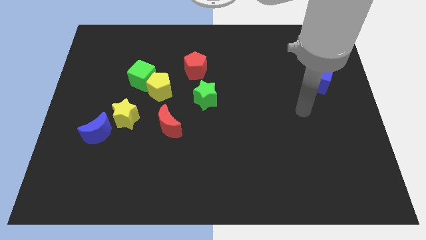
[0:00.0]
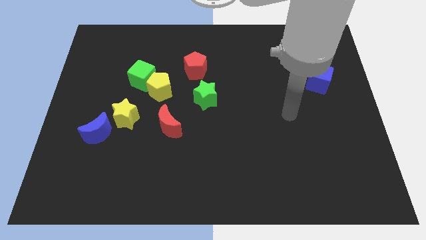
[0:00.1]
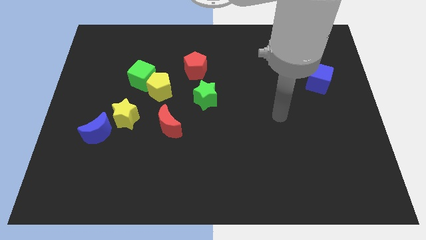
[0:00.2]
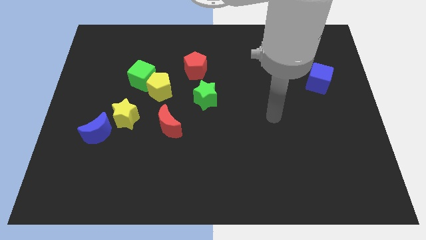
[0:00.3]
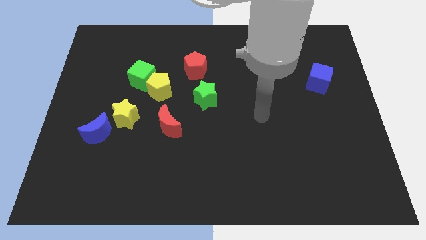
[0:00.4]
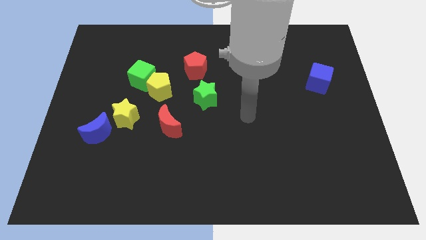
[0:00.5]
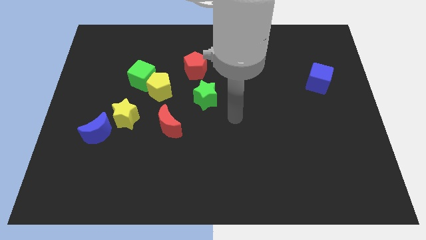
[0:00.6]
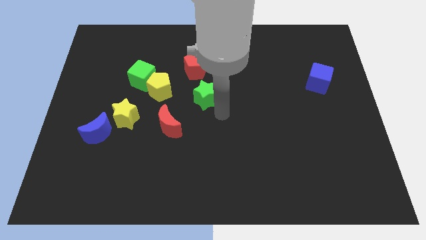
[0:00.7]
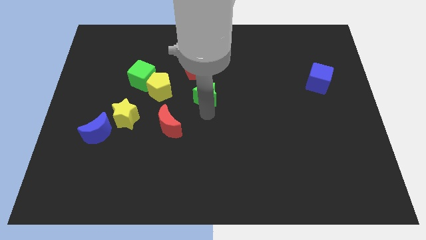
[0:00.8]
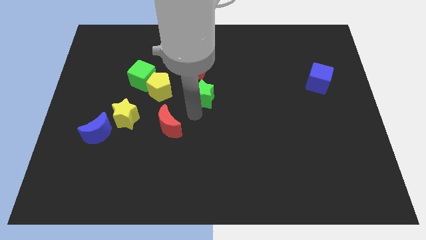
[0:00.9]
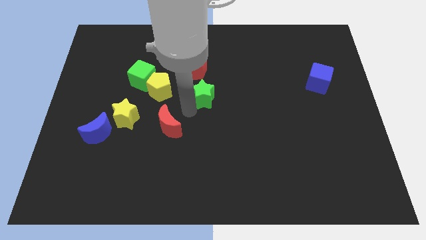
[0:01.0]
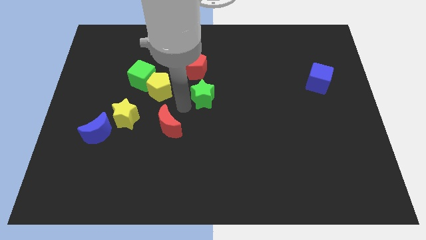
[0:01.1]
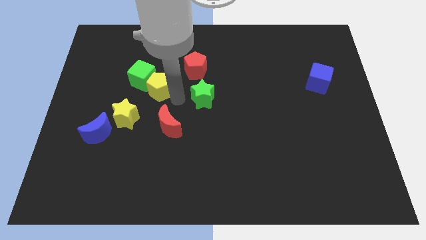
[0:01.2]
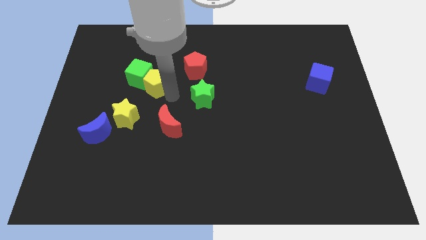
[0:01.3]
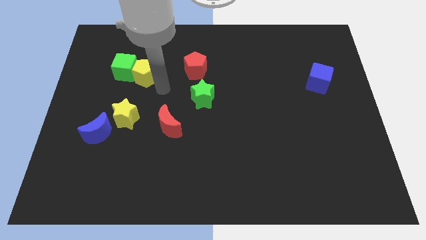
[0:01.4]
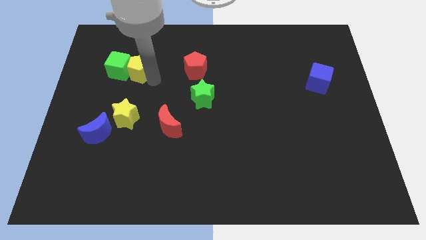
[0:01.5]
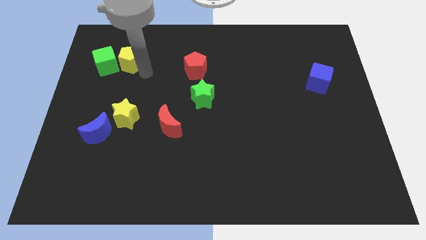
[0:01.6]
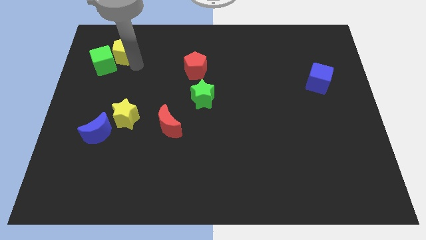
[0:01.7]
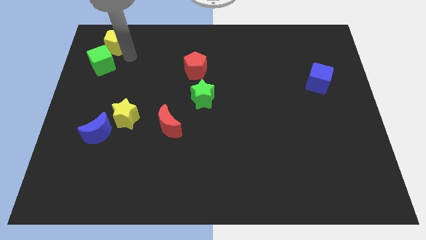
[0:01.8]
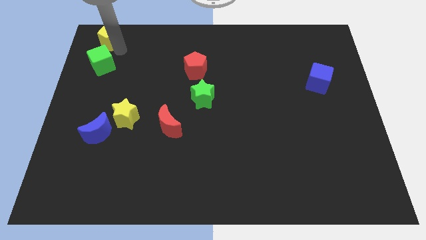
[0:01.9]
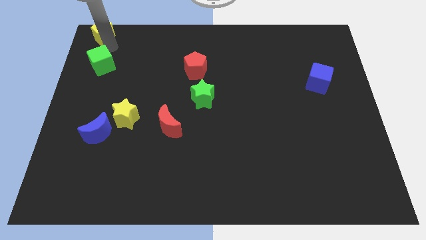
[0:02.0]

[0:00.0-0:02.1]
separate the green cube from the yellow pentagon

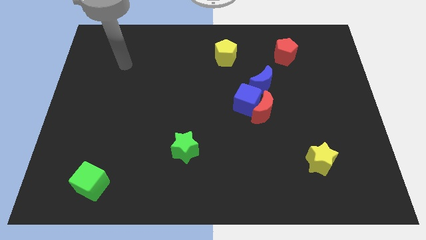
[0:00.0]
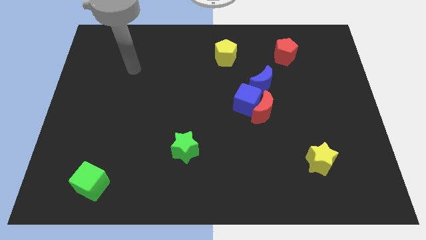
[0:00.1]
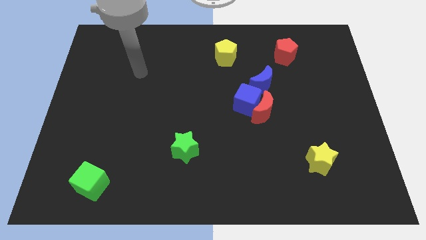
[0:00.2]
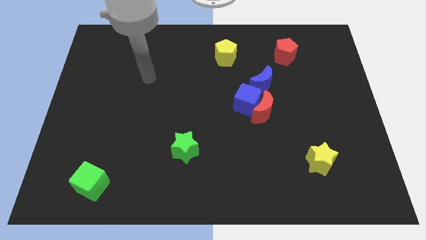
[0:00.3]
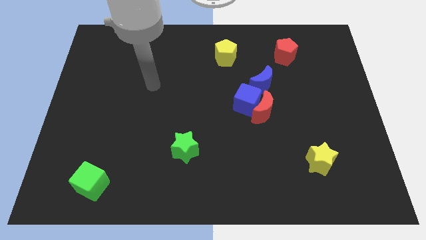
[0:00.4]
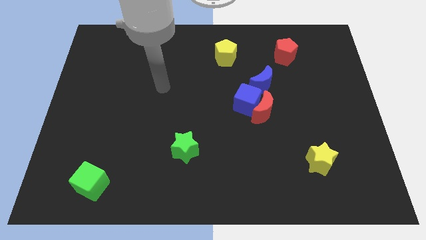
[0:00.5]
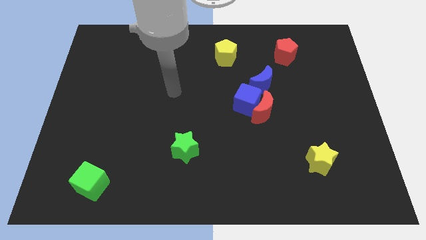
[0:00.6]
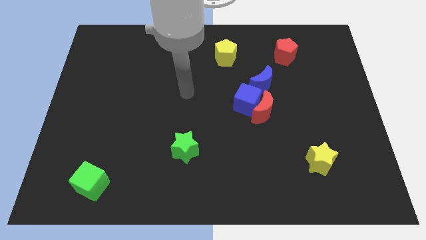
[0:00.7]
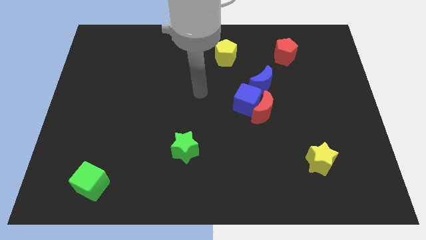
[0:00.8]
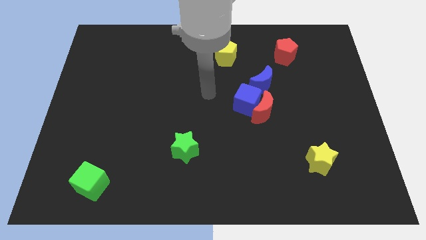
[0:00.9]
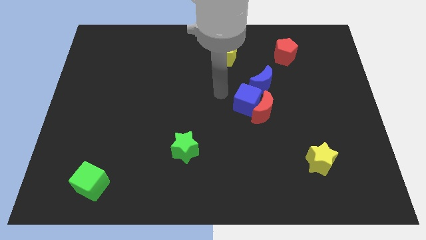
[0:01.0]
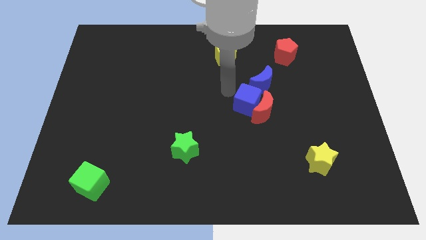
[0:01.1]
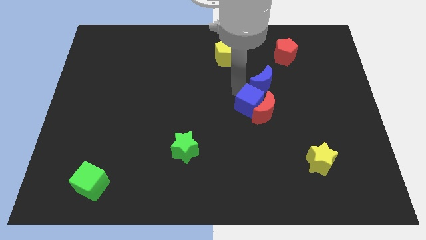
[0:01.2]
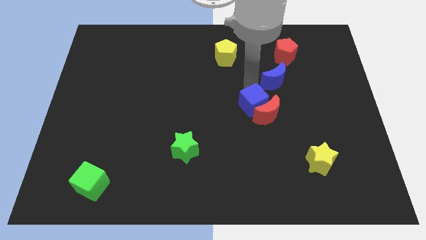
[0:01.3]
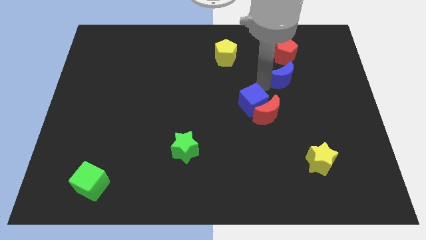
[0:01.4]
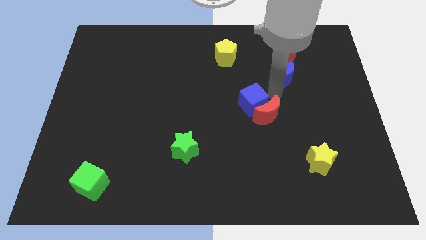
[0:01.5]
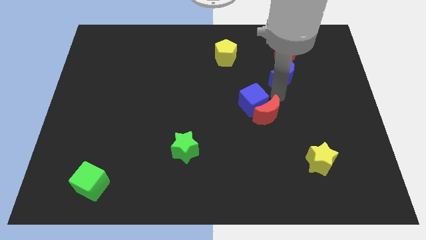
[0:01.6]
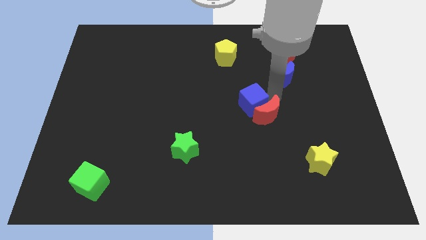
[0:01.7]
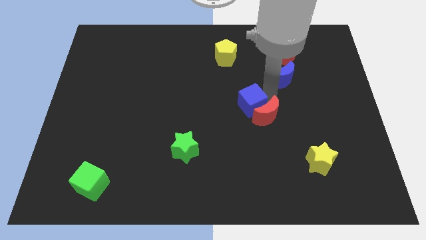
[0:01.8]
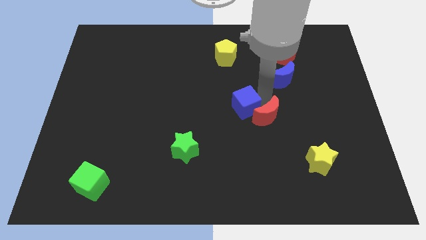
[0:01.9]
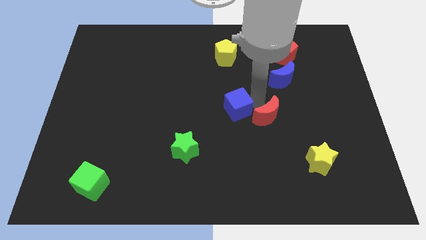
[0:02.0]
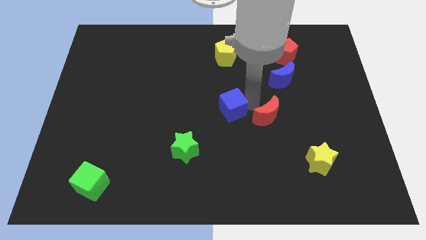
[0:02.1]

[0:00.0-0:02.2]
separate the blue cube from the red moon and blue moon

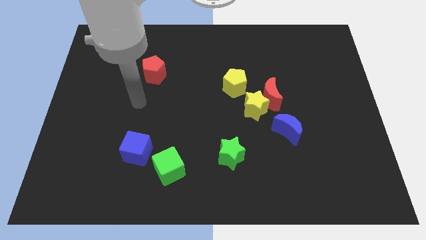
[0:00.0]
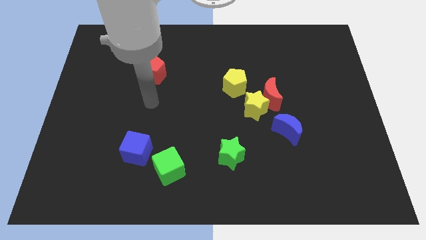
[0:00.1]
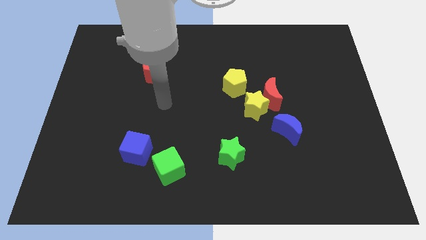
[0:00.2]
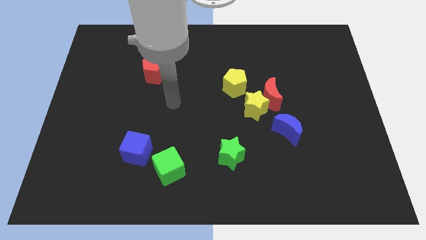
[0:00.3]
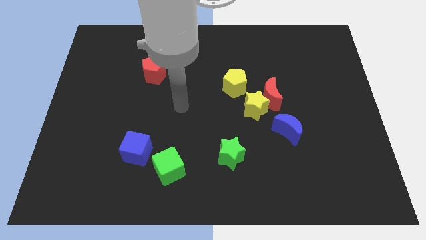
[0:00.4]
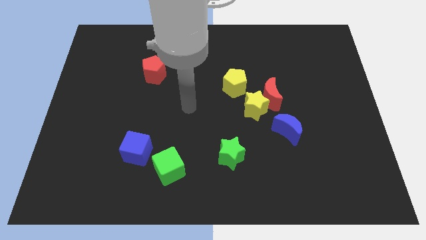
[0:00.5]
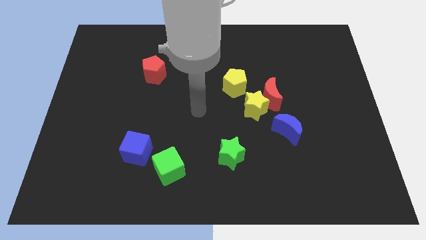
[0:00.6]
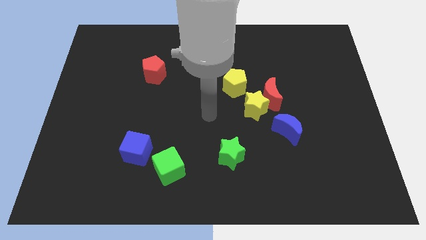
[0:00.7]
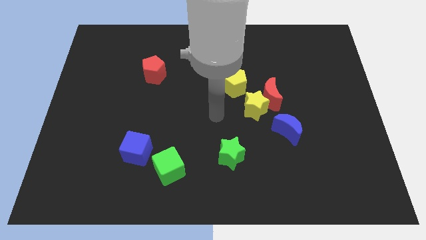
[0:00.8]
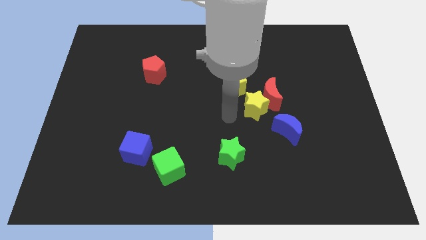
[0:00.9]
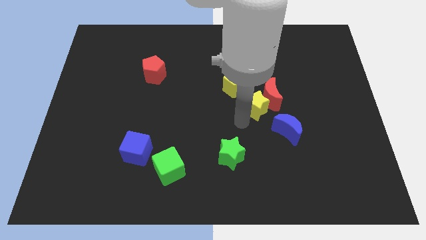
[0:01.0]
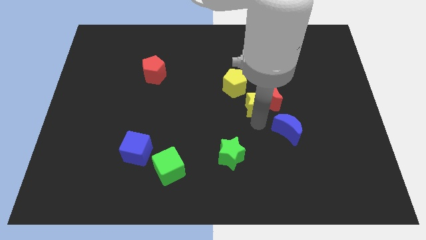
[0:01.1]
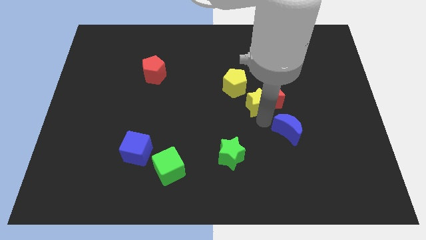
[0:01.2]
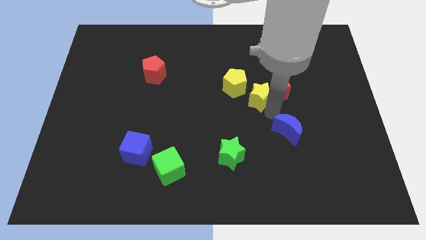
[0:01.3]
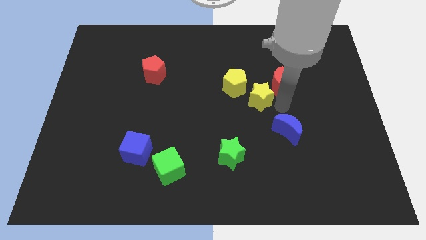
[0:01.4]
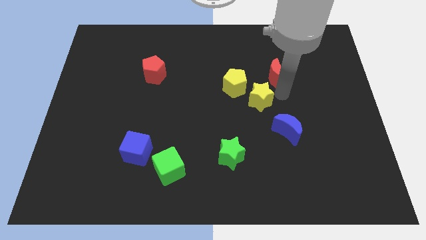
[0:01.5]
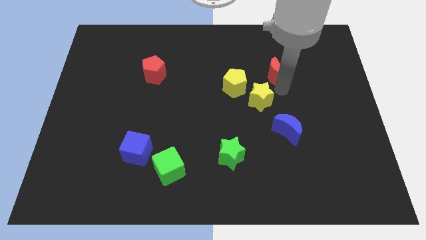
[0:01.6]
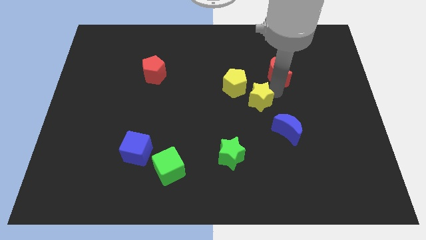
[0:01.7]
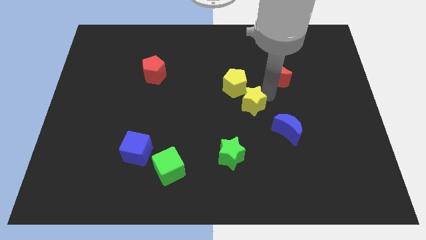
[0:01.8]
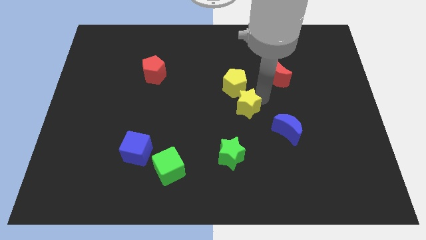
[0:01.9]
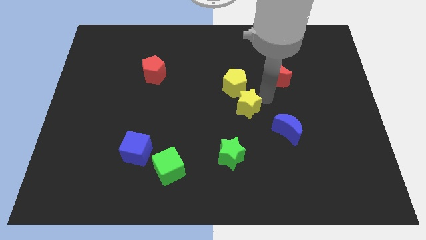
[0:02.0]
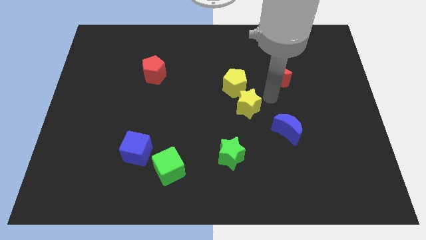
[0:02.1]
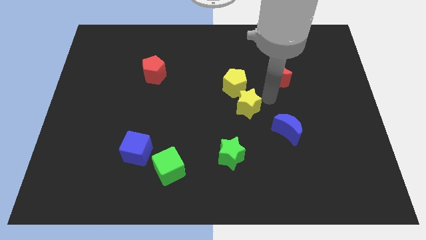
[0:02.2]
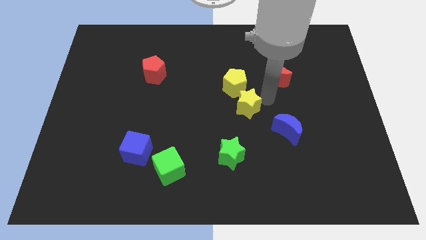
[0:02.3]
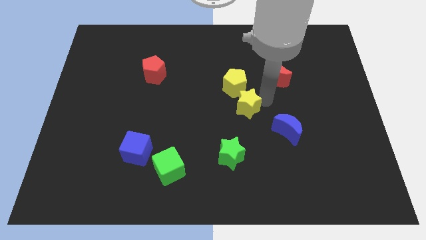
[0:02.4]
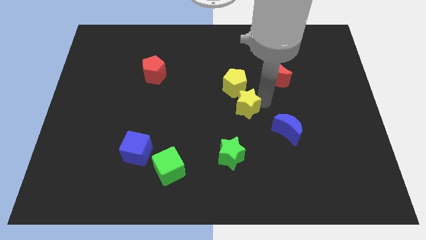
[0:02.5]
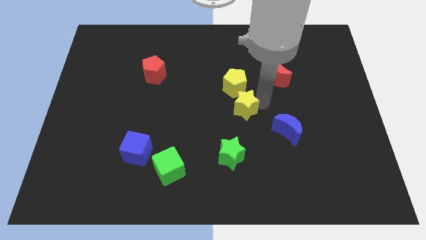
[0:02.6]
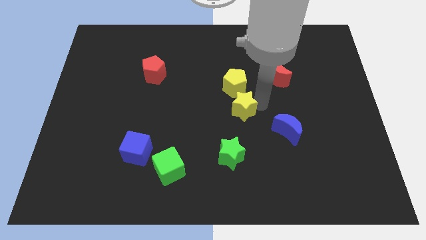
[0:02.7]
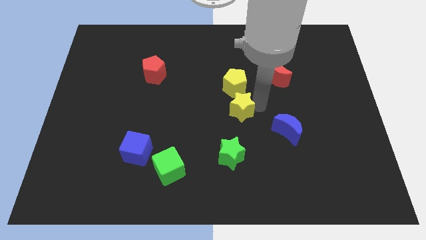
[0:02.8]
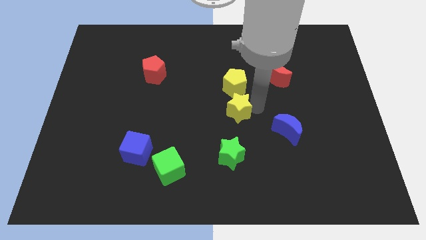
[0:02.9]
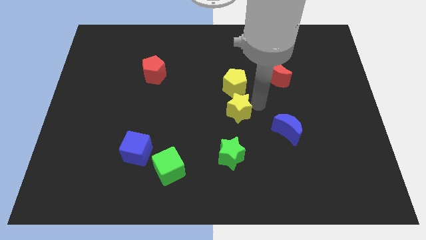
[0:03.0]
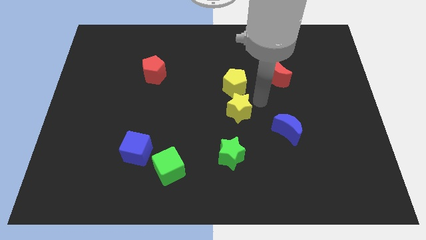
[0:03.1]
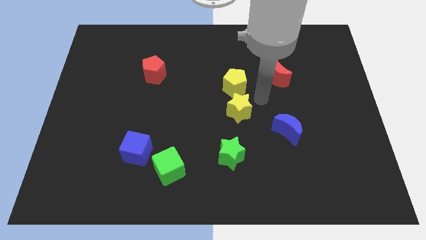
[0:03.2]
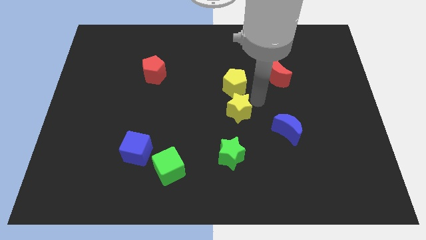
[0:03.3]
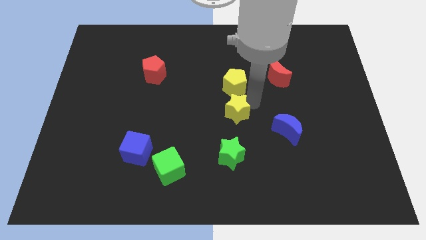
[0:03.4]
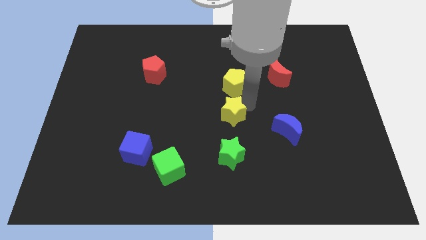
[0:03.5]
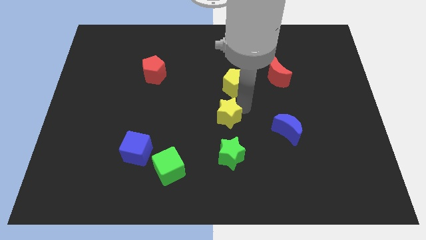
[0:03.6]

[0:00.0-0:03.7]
pull the yellow star apart from the group of blocks

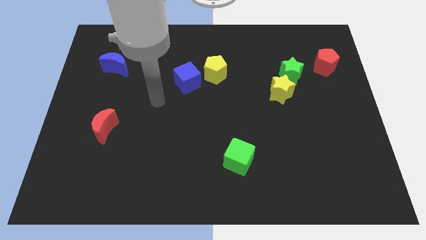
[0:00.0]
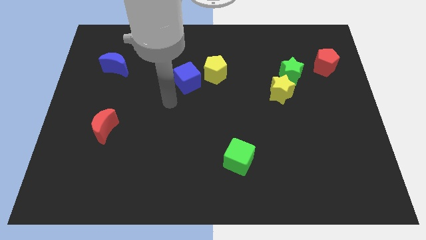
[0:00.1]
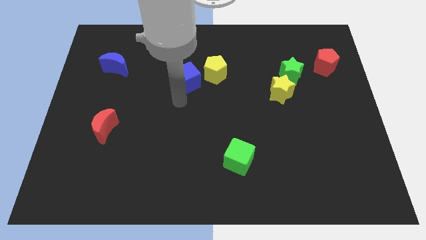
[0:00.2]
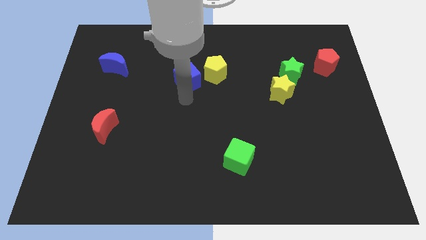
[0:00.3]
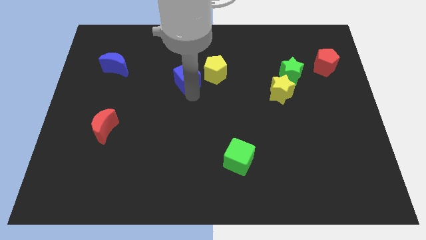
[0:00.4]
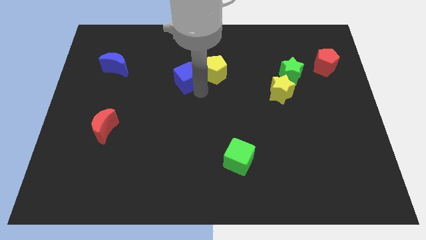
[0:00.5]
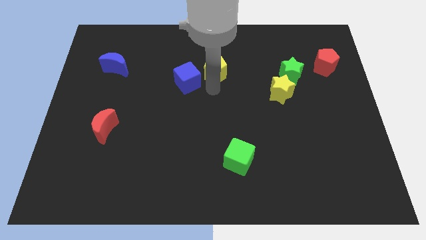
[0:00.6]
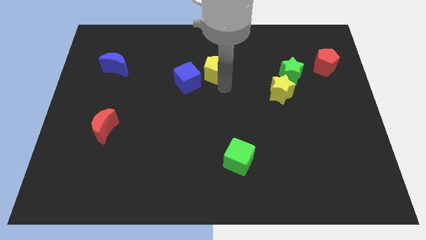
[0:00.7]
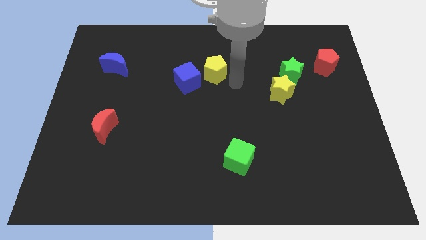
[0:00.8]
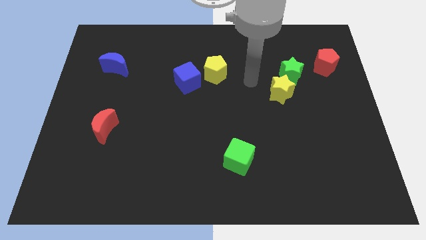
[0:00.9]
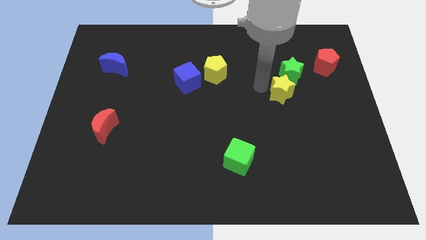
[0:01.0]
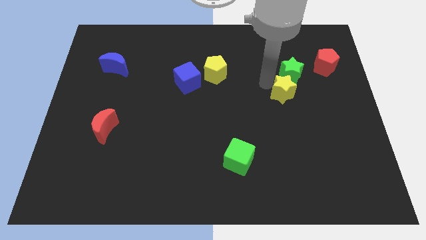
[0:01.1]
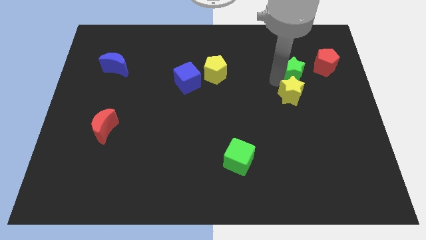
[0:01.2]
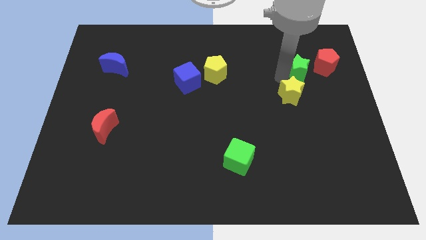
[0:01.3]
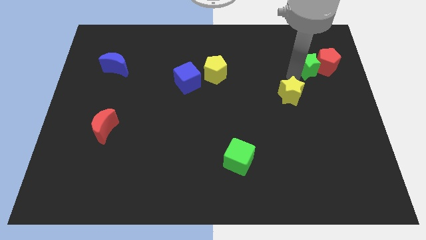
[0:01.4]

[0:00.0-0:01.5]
separate the yellow star from the green star
